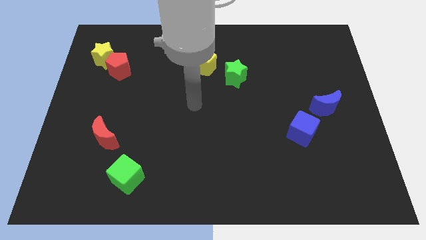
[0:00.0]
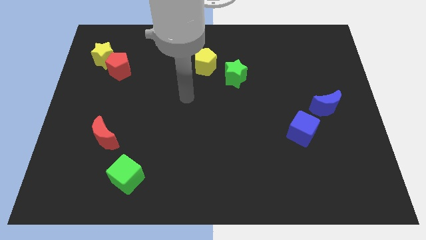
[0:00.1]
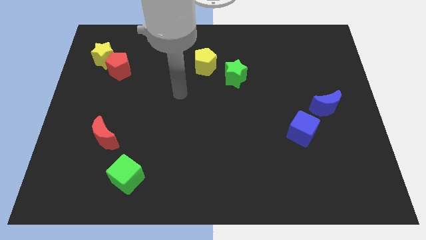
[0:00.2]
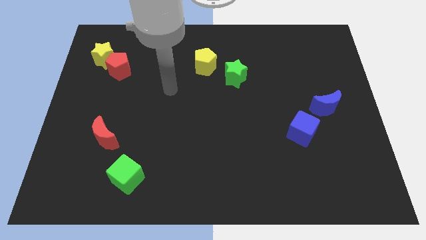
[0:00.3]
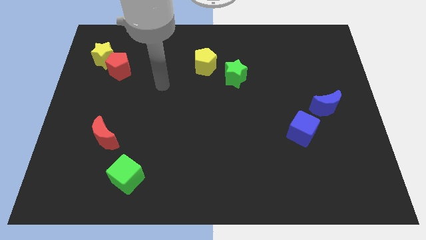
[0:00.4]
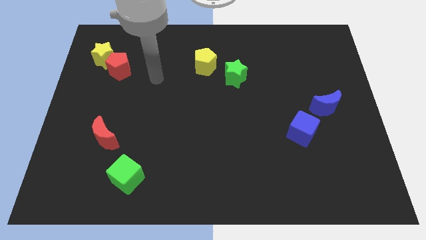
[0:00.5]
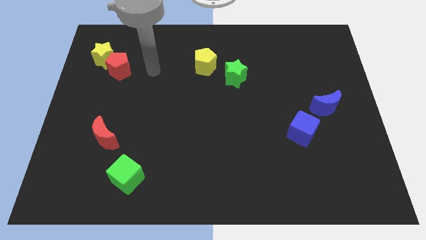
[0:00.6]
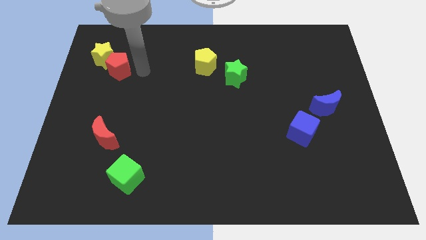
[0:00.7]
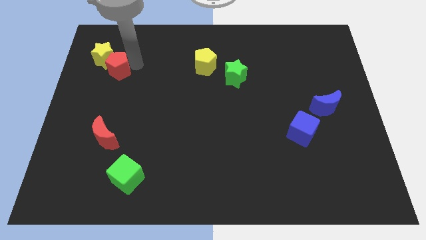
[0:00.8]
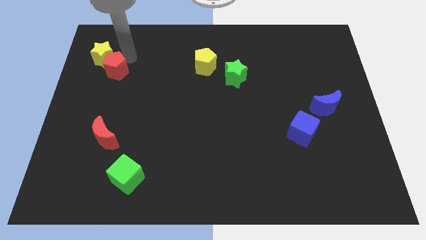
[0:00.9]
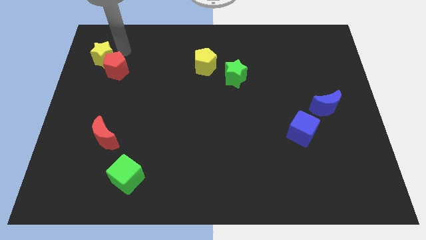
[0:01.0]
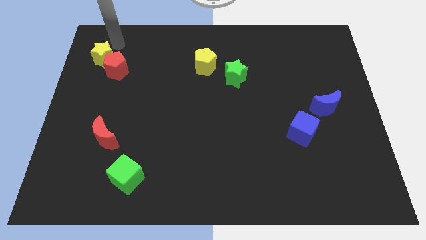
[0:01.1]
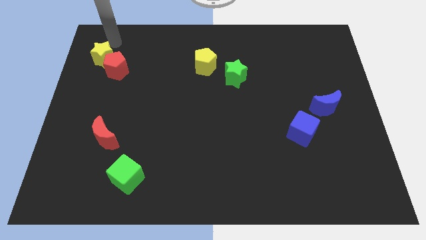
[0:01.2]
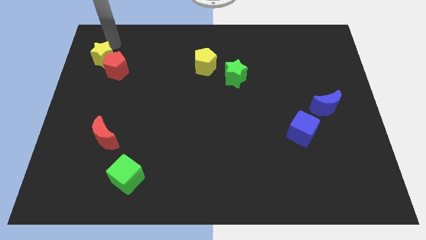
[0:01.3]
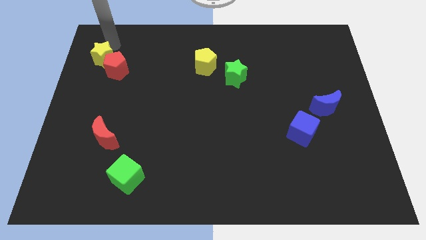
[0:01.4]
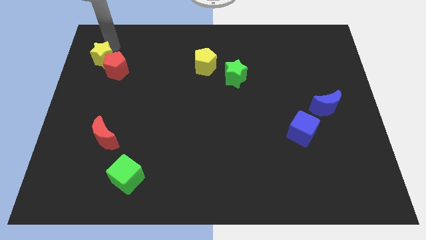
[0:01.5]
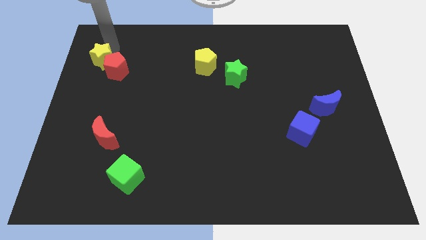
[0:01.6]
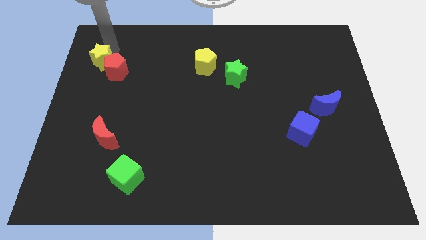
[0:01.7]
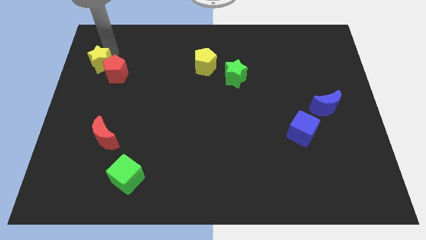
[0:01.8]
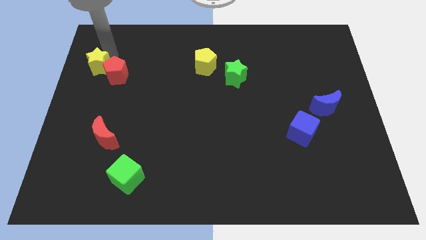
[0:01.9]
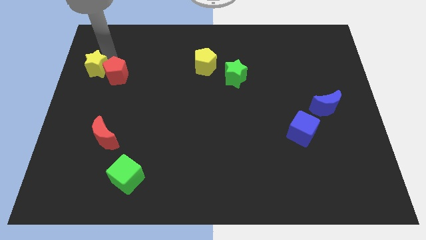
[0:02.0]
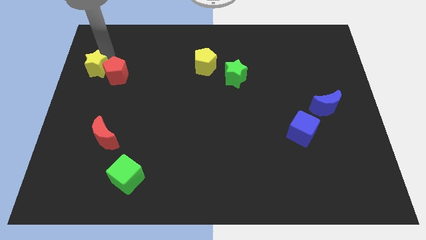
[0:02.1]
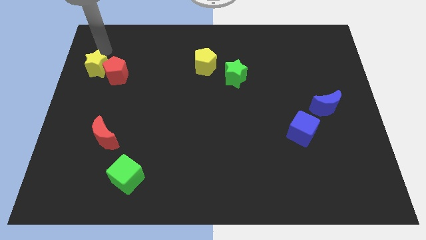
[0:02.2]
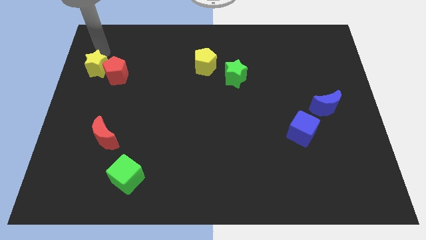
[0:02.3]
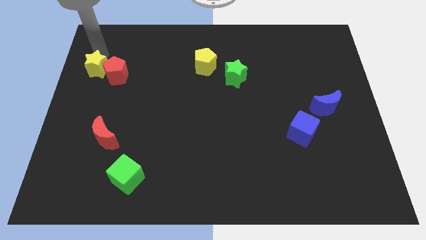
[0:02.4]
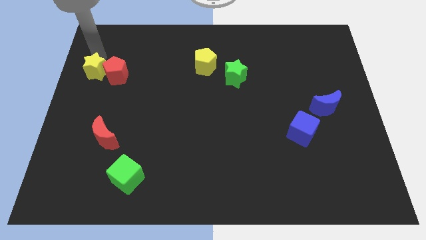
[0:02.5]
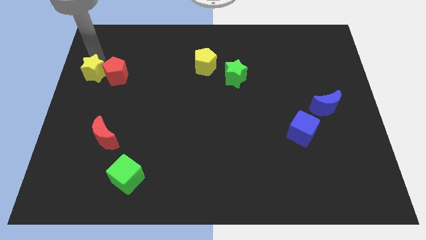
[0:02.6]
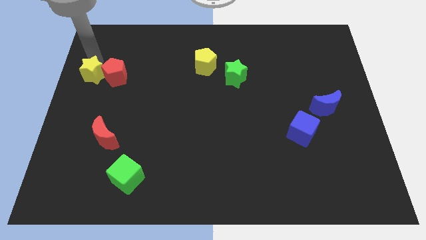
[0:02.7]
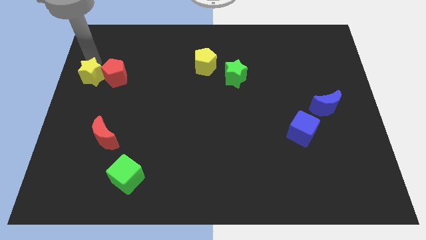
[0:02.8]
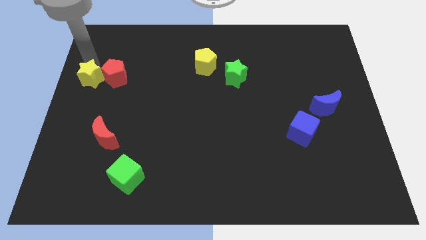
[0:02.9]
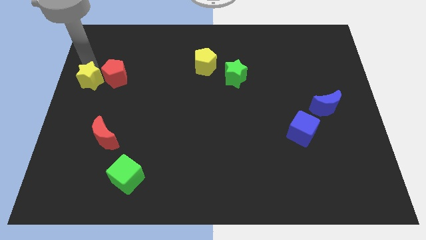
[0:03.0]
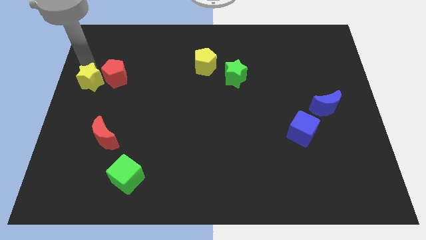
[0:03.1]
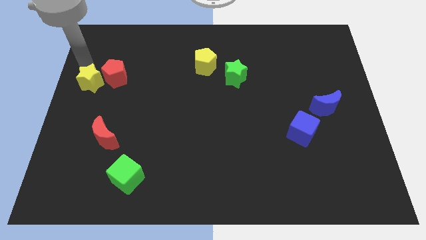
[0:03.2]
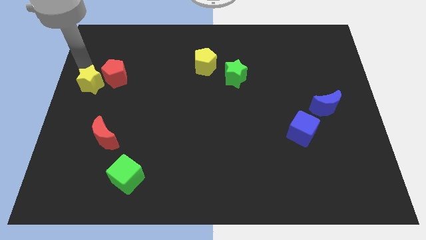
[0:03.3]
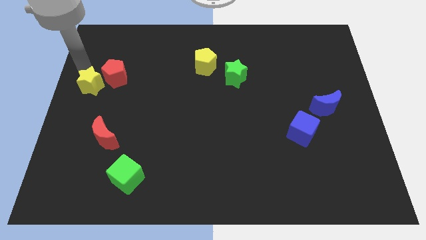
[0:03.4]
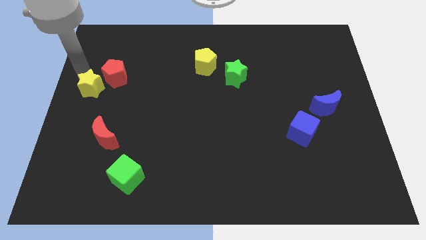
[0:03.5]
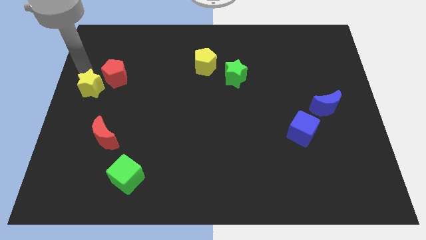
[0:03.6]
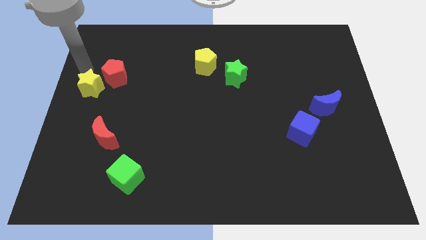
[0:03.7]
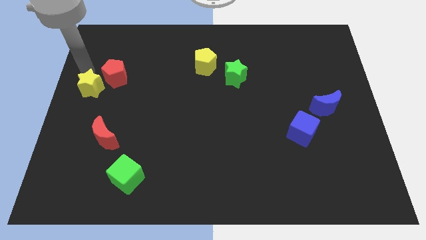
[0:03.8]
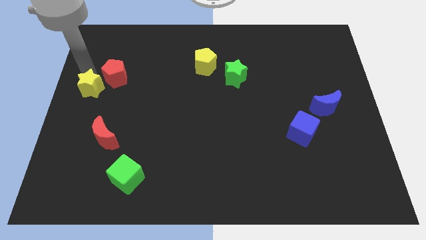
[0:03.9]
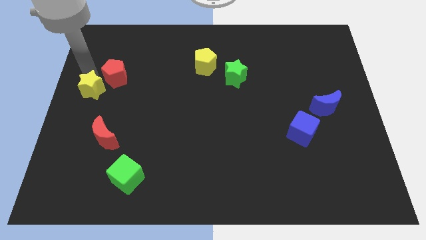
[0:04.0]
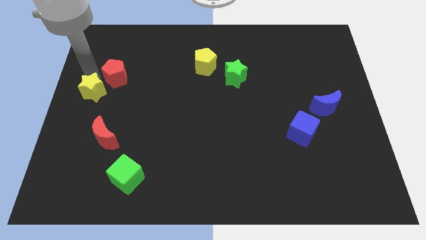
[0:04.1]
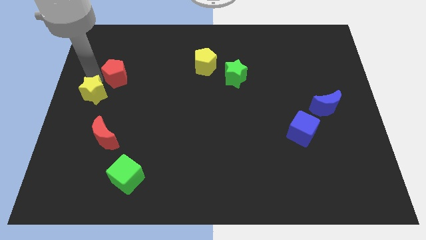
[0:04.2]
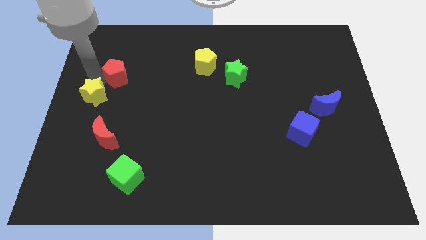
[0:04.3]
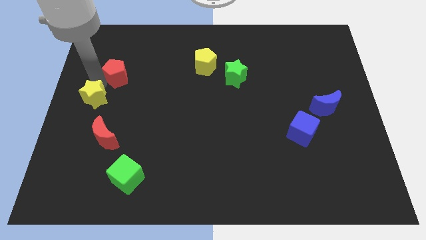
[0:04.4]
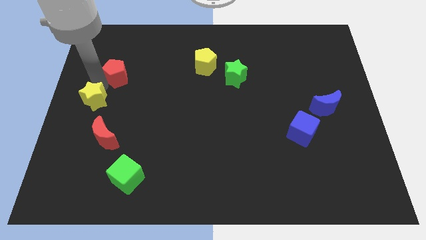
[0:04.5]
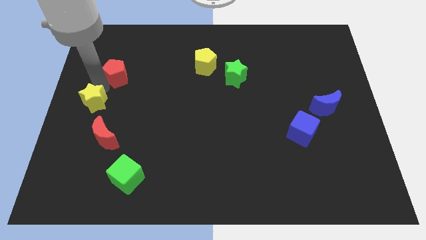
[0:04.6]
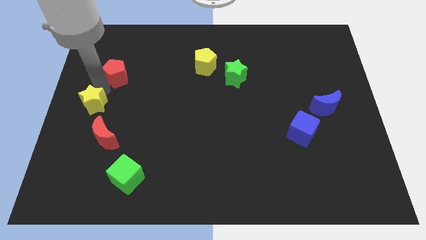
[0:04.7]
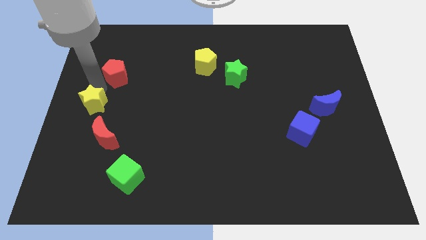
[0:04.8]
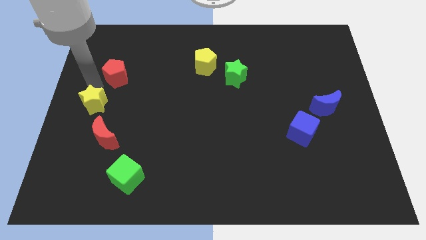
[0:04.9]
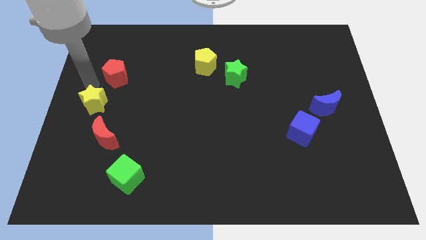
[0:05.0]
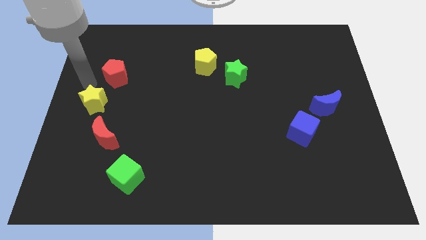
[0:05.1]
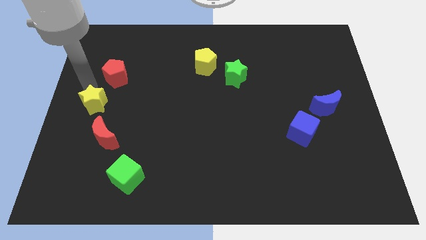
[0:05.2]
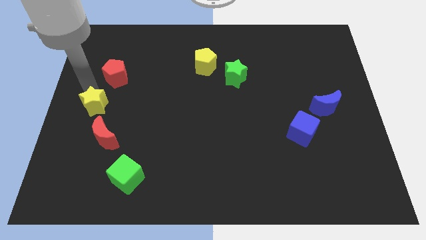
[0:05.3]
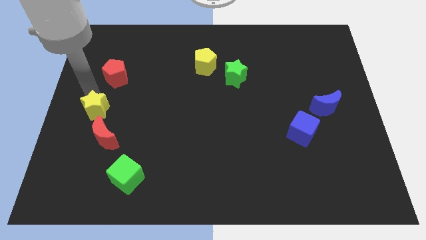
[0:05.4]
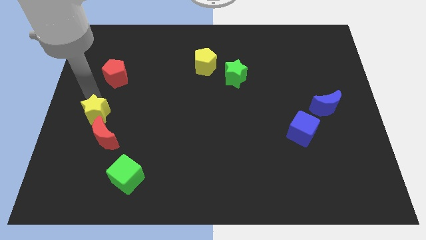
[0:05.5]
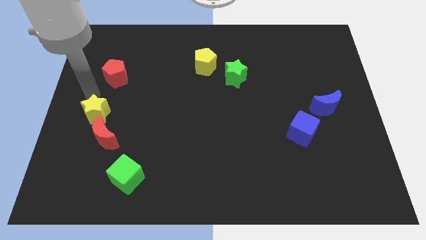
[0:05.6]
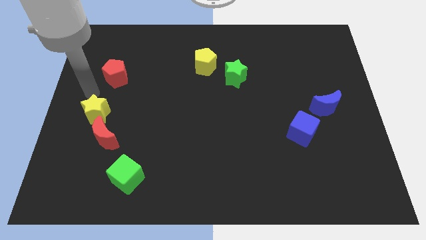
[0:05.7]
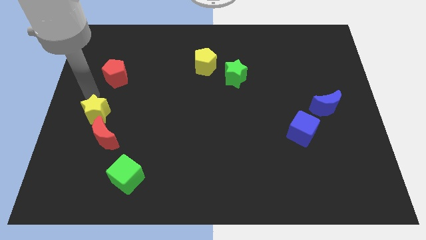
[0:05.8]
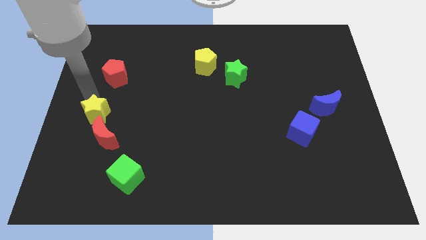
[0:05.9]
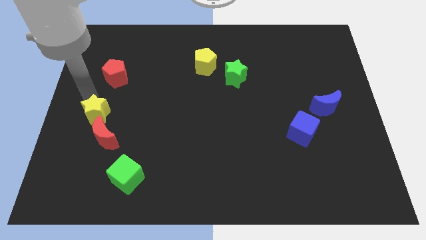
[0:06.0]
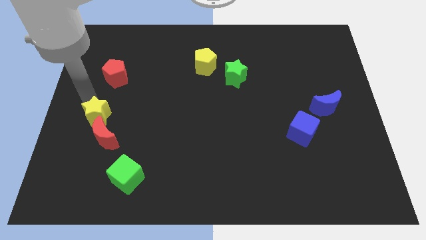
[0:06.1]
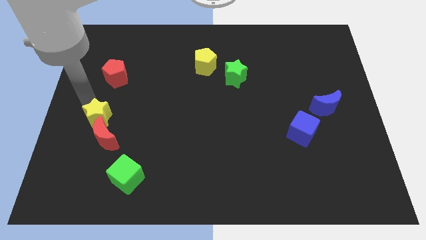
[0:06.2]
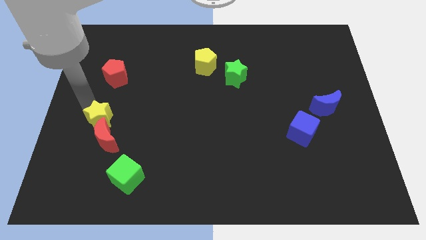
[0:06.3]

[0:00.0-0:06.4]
slide the yellow star next to the red moon

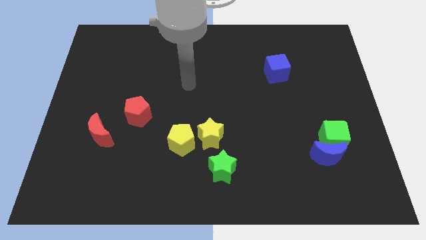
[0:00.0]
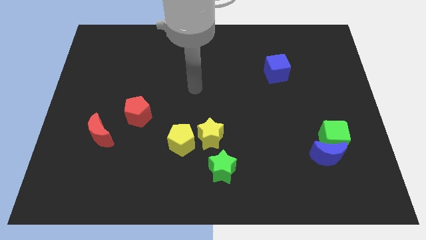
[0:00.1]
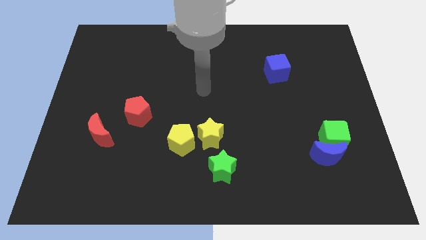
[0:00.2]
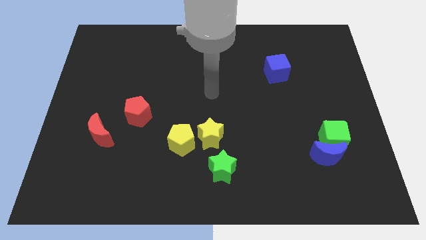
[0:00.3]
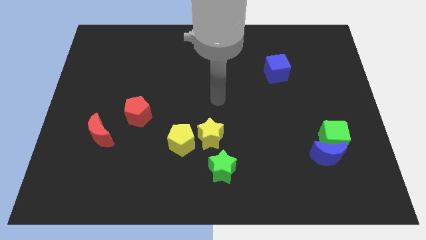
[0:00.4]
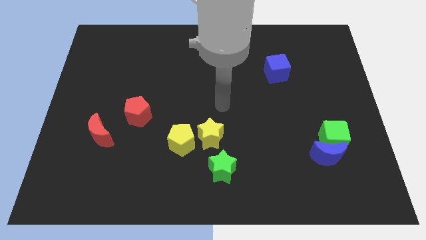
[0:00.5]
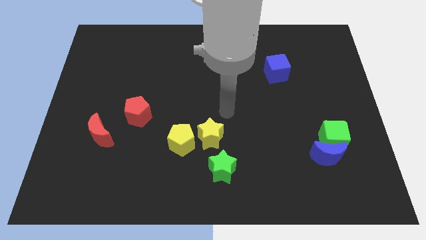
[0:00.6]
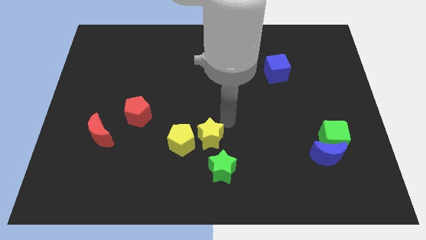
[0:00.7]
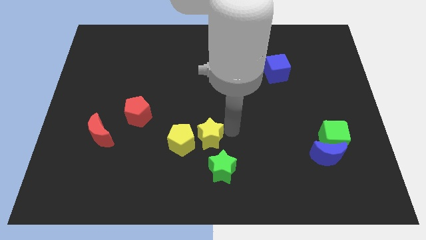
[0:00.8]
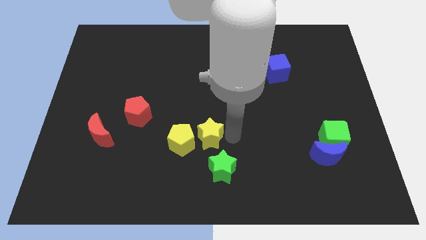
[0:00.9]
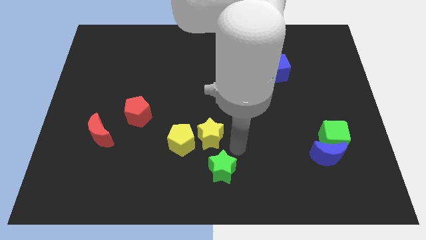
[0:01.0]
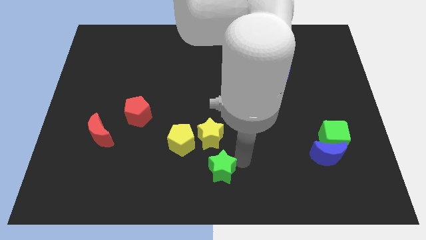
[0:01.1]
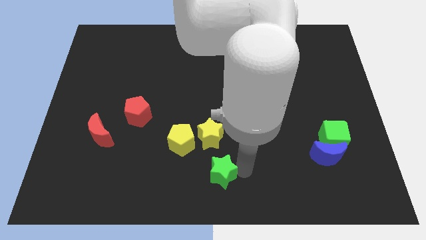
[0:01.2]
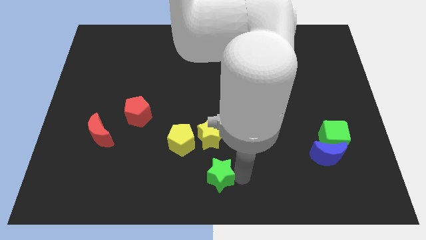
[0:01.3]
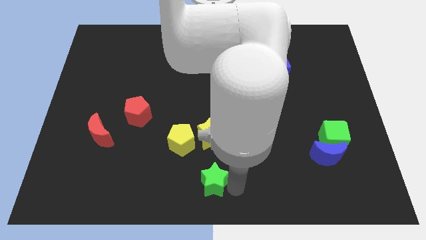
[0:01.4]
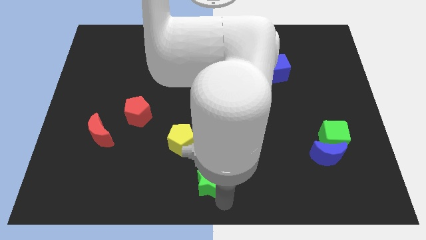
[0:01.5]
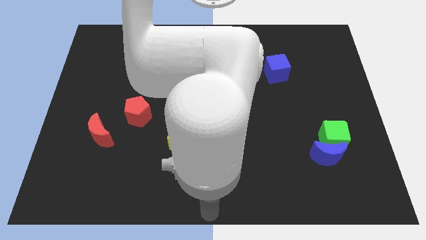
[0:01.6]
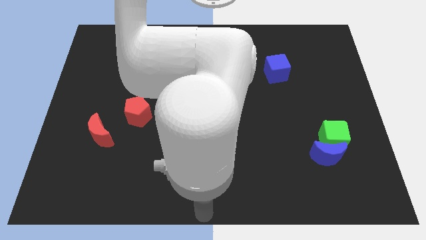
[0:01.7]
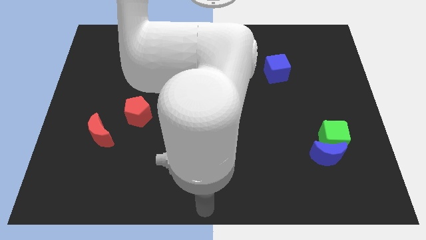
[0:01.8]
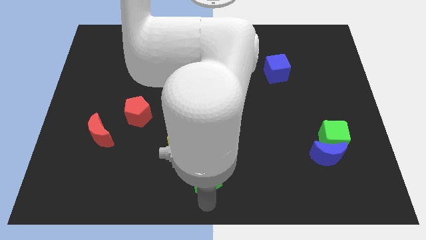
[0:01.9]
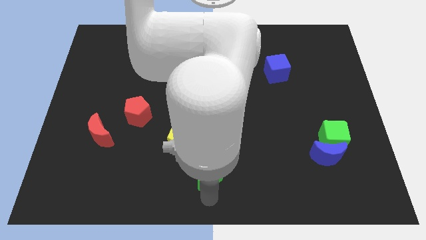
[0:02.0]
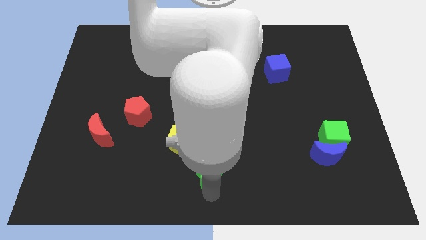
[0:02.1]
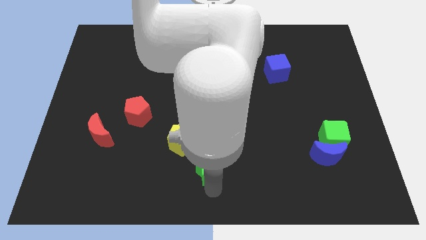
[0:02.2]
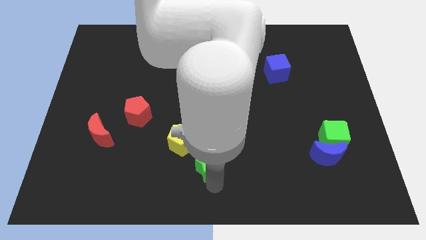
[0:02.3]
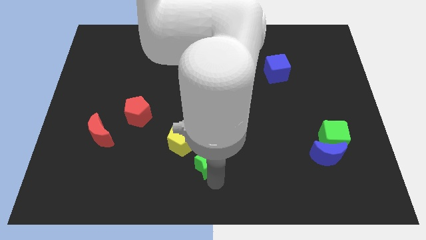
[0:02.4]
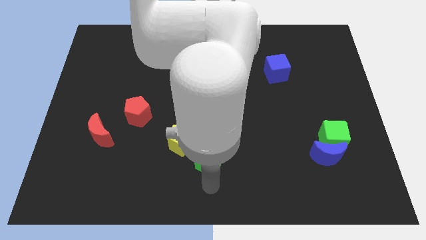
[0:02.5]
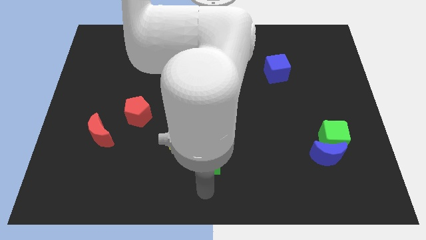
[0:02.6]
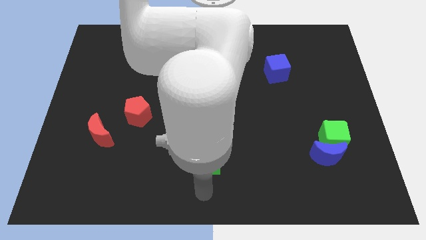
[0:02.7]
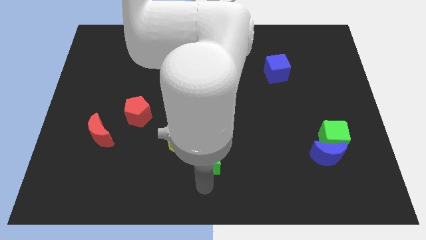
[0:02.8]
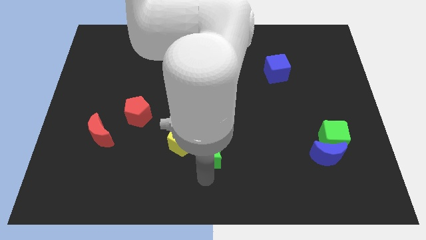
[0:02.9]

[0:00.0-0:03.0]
move the green star to the yellow star
